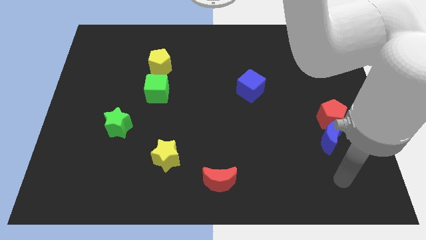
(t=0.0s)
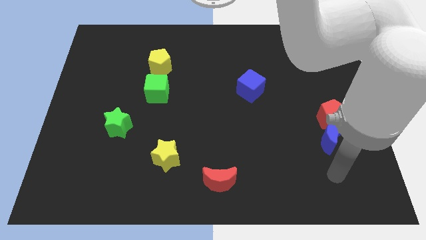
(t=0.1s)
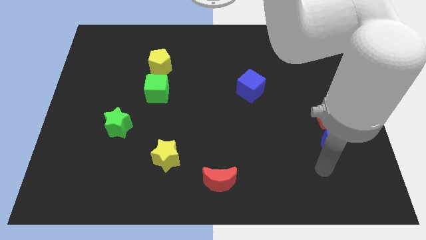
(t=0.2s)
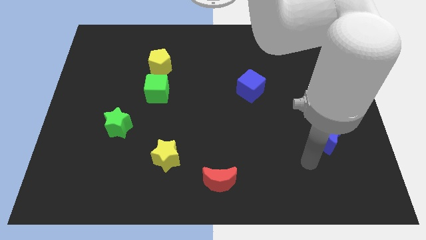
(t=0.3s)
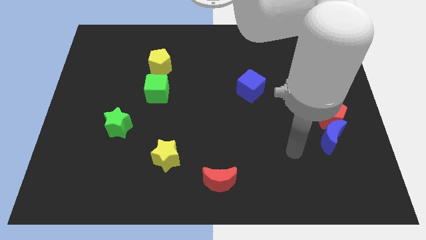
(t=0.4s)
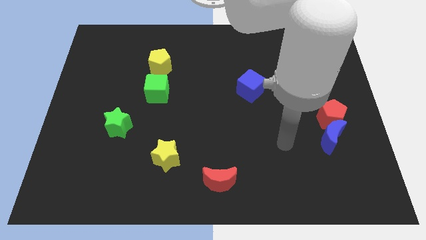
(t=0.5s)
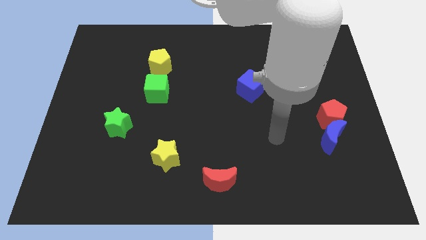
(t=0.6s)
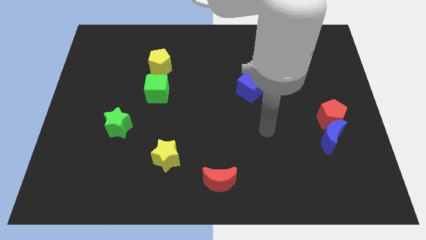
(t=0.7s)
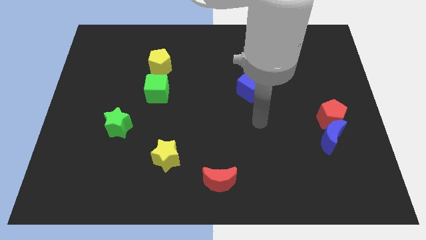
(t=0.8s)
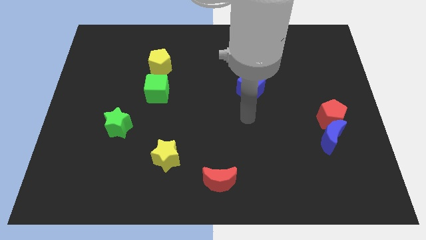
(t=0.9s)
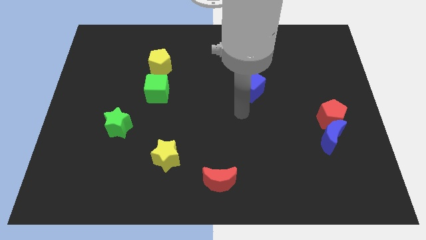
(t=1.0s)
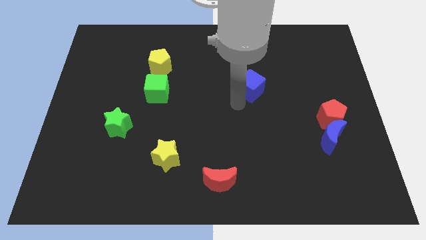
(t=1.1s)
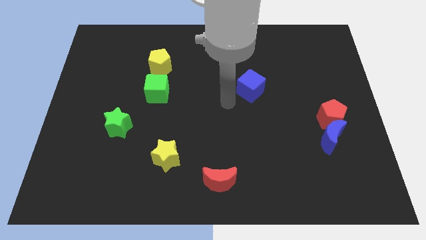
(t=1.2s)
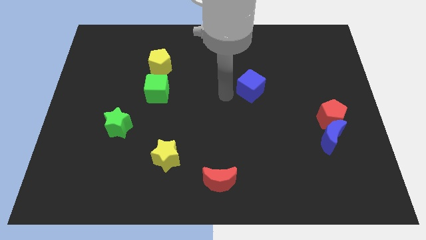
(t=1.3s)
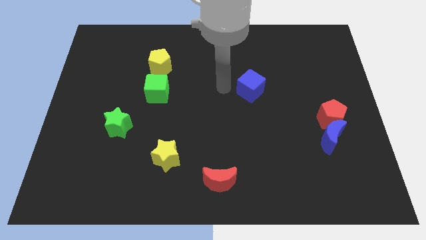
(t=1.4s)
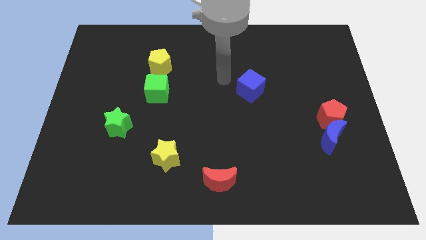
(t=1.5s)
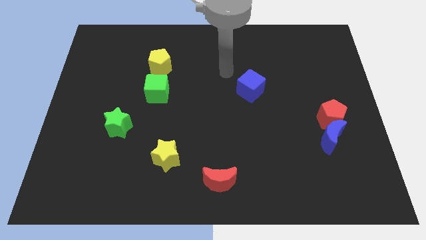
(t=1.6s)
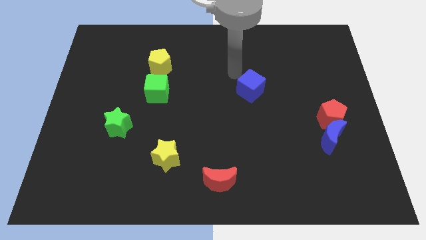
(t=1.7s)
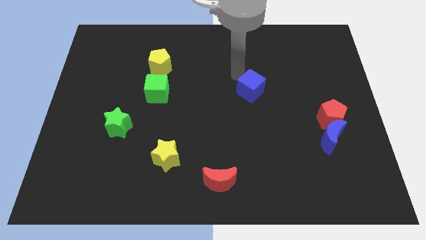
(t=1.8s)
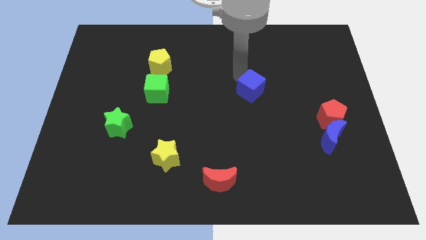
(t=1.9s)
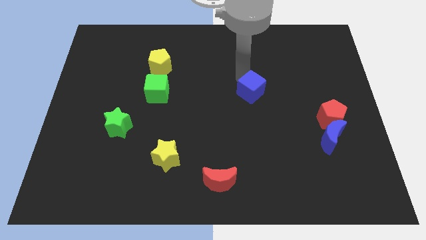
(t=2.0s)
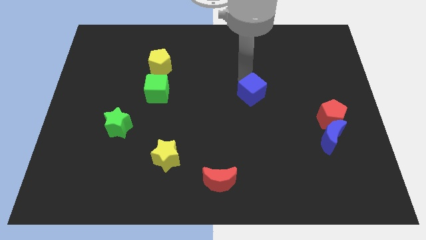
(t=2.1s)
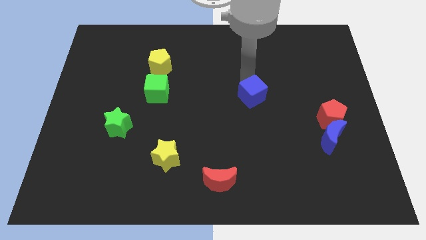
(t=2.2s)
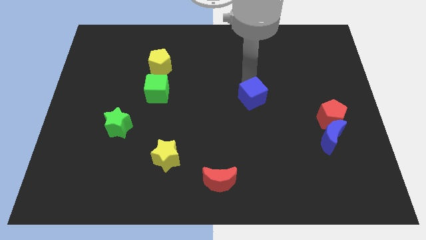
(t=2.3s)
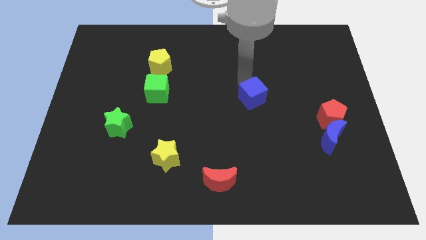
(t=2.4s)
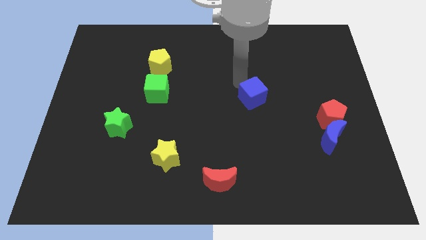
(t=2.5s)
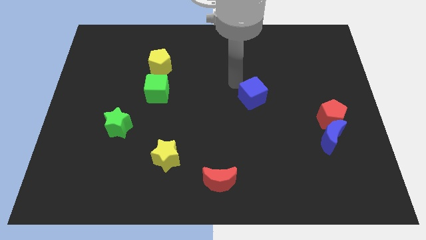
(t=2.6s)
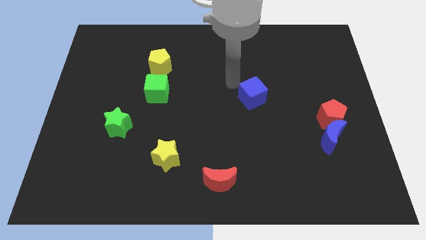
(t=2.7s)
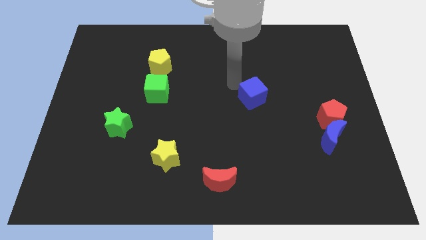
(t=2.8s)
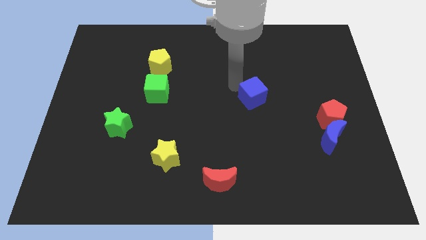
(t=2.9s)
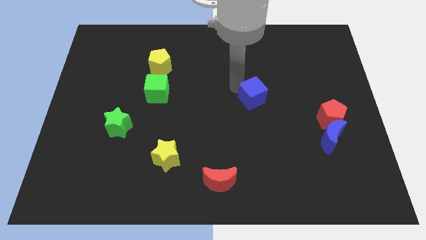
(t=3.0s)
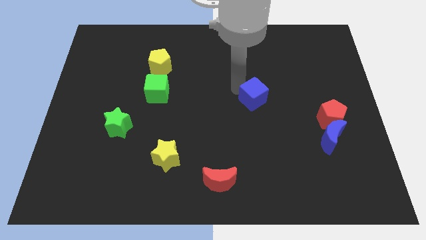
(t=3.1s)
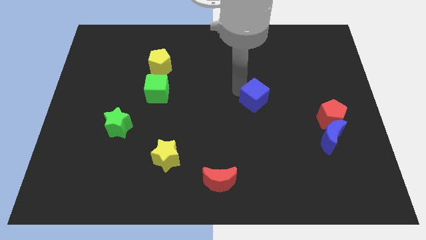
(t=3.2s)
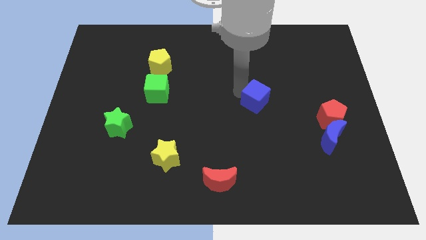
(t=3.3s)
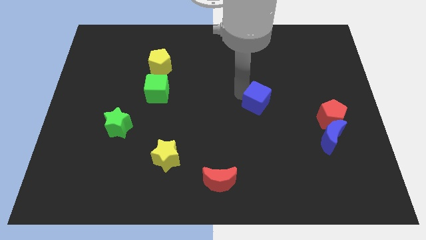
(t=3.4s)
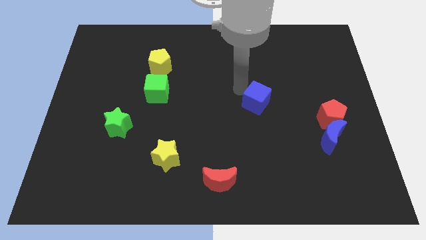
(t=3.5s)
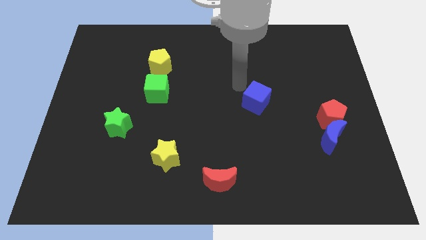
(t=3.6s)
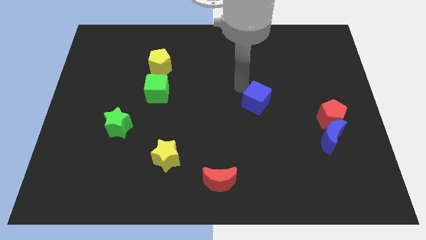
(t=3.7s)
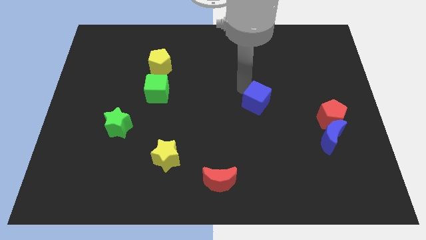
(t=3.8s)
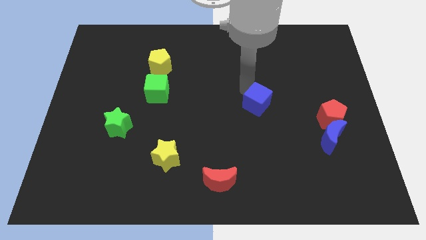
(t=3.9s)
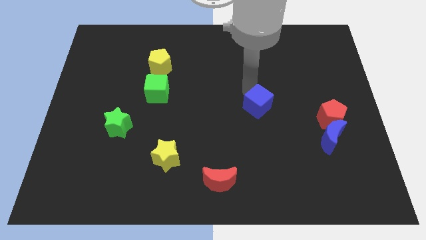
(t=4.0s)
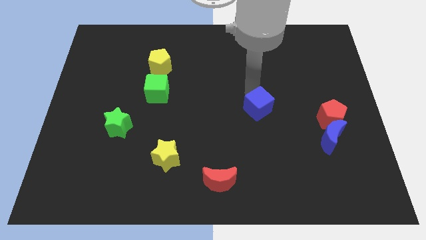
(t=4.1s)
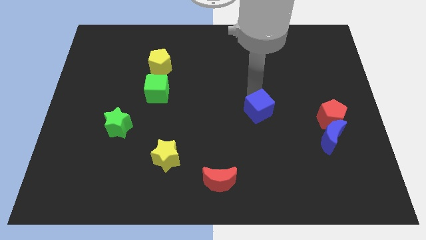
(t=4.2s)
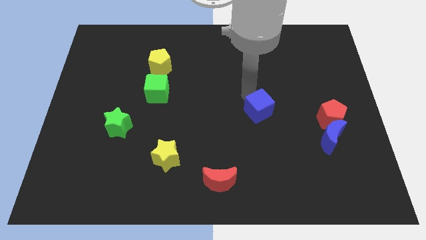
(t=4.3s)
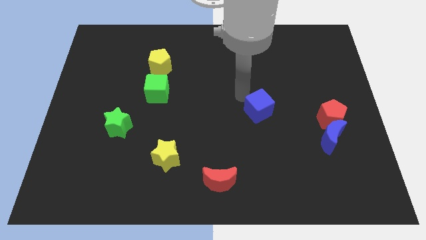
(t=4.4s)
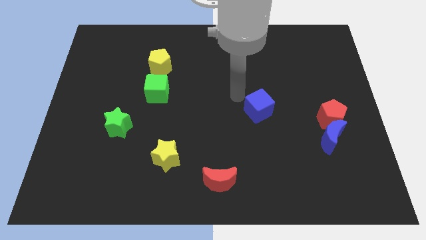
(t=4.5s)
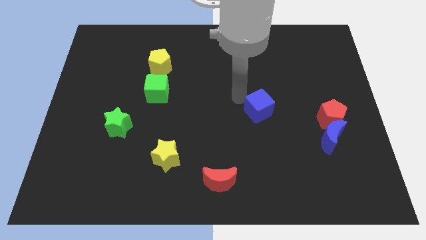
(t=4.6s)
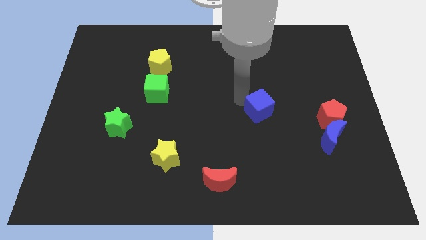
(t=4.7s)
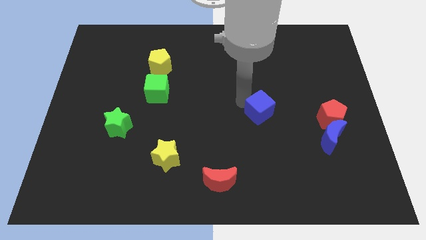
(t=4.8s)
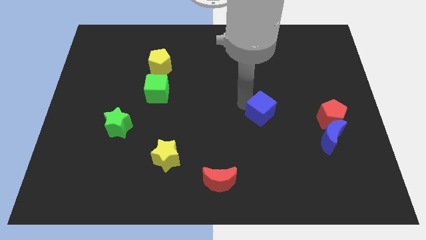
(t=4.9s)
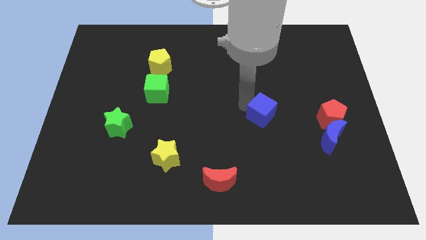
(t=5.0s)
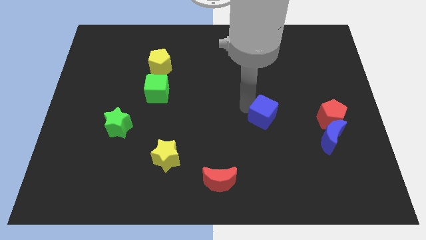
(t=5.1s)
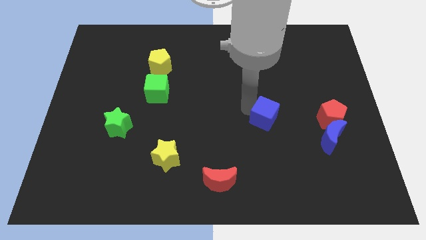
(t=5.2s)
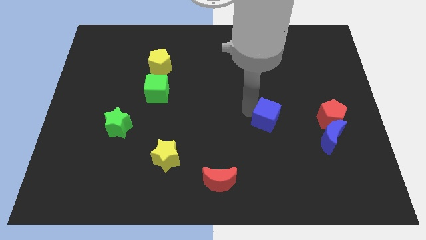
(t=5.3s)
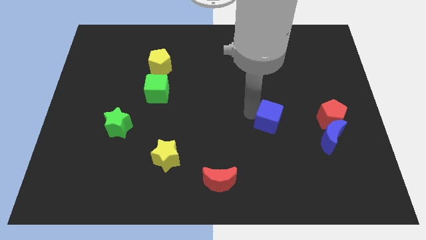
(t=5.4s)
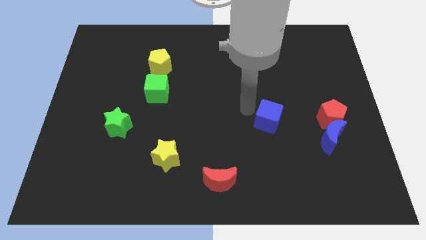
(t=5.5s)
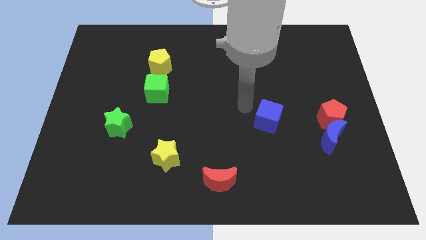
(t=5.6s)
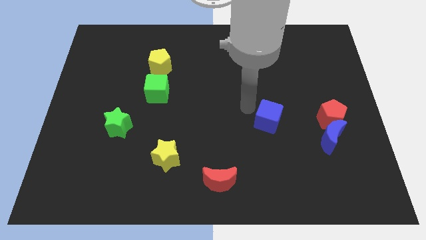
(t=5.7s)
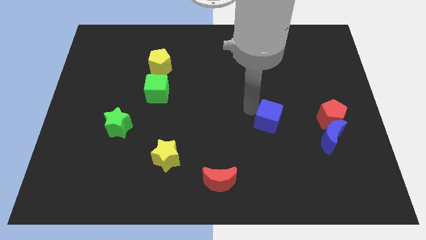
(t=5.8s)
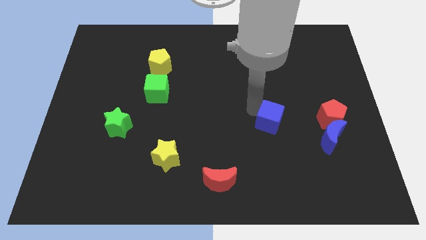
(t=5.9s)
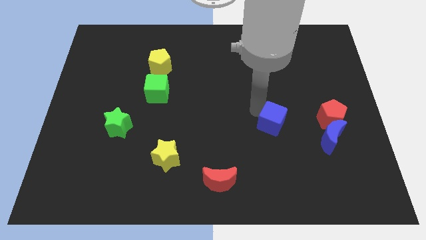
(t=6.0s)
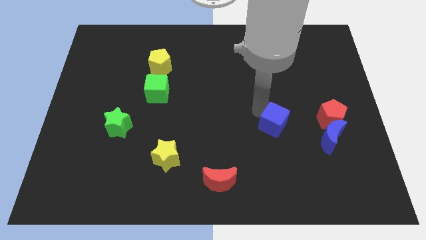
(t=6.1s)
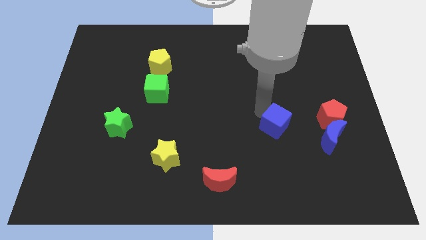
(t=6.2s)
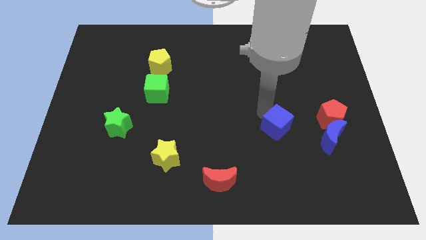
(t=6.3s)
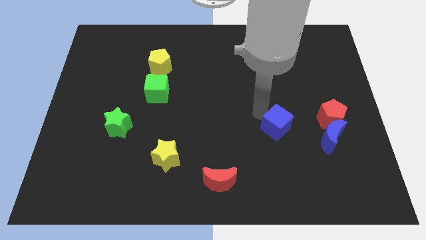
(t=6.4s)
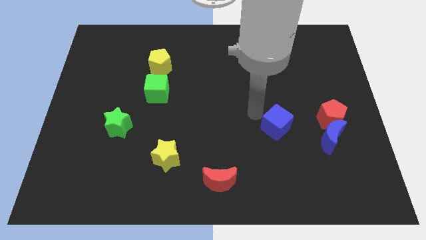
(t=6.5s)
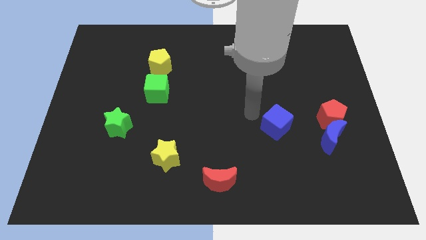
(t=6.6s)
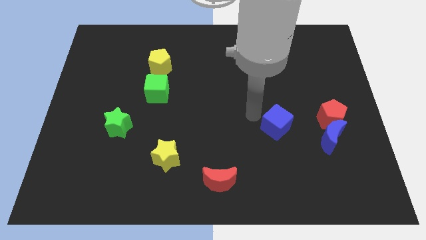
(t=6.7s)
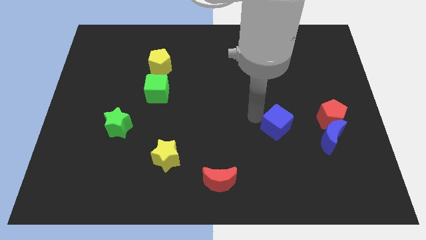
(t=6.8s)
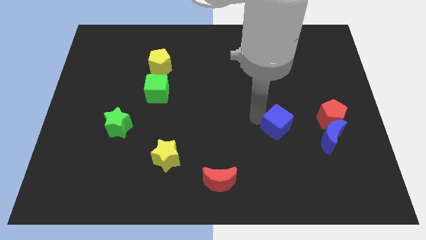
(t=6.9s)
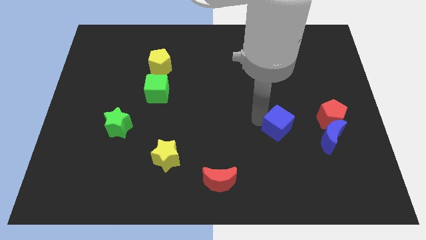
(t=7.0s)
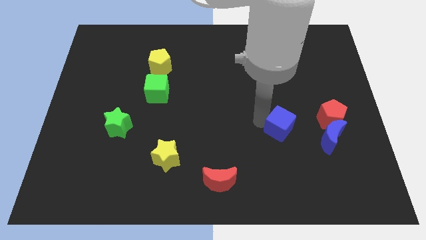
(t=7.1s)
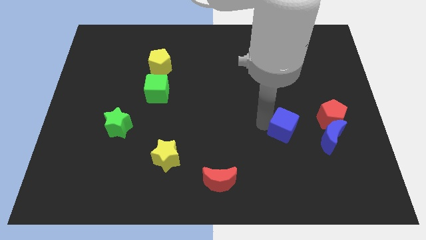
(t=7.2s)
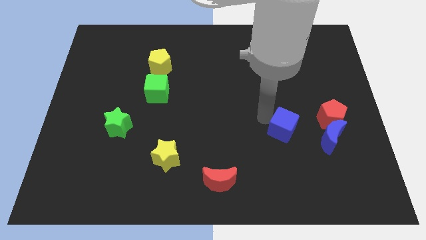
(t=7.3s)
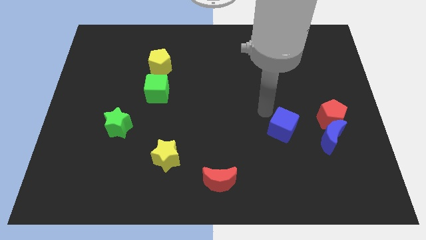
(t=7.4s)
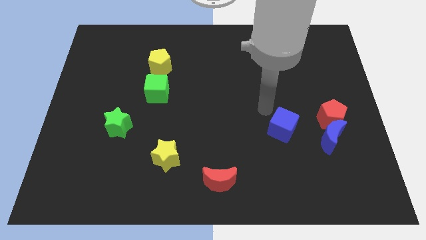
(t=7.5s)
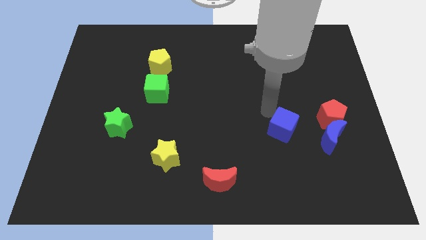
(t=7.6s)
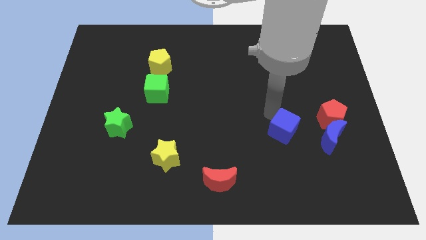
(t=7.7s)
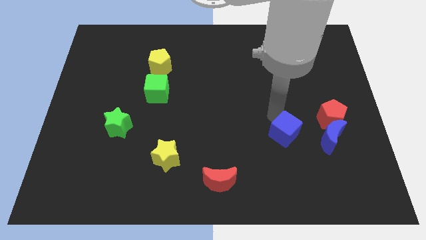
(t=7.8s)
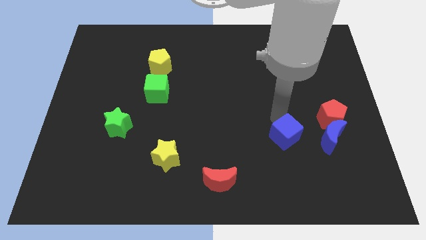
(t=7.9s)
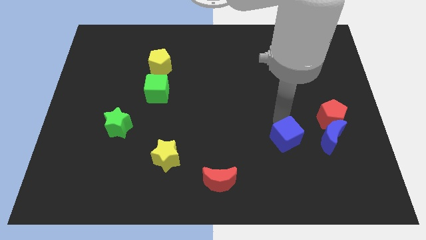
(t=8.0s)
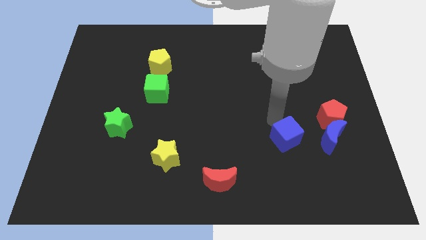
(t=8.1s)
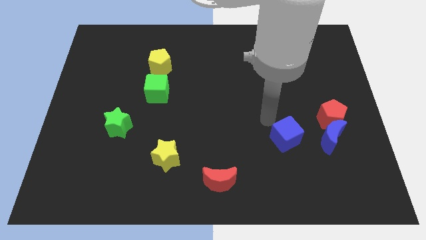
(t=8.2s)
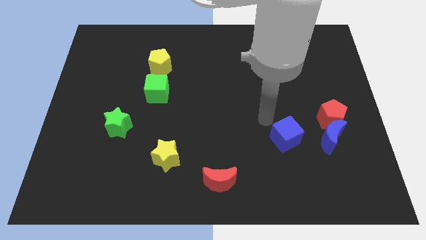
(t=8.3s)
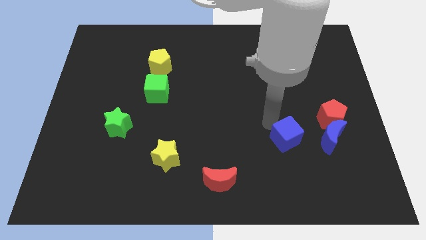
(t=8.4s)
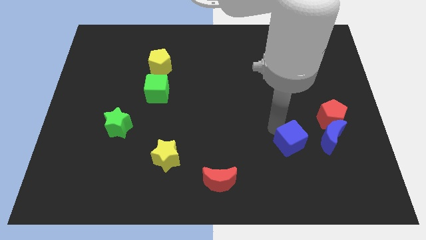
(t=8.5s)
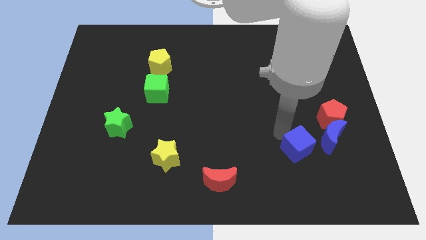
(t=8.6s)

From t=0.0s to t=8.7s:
move the blue cube to the bottom left side of the blue moon
